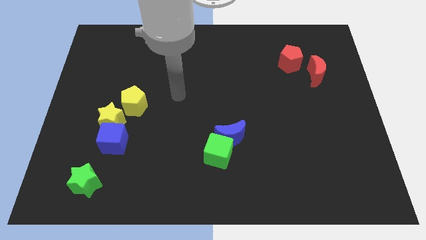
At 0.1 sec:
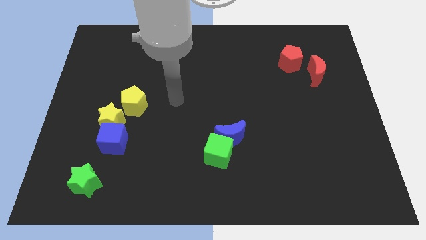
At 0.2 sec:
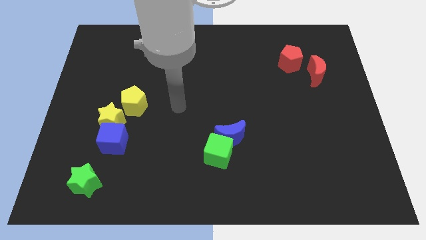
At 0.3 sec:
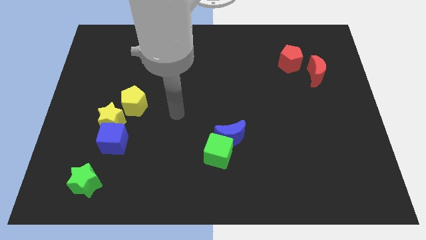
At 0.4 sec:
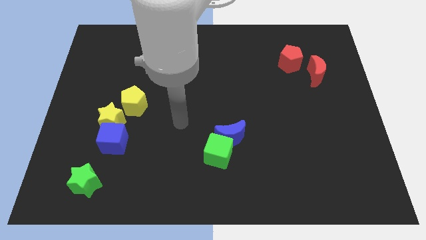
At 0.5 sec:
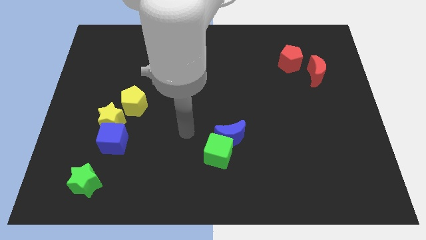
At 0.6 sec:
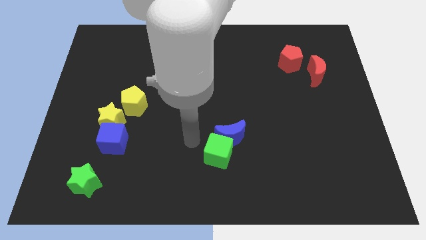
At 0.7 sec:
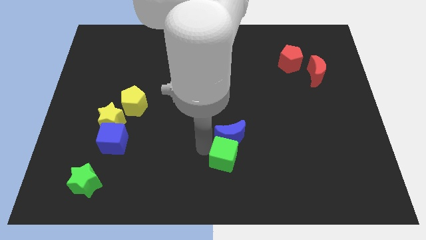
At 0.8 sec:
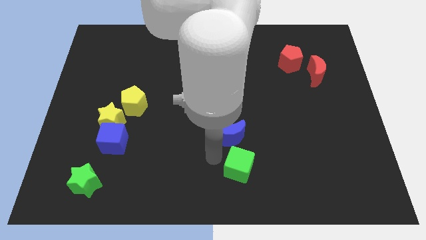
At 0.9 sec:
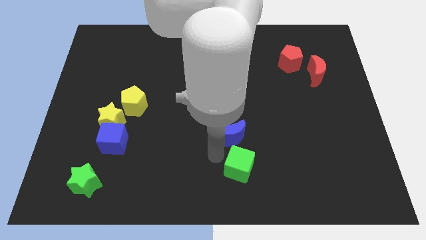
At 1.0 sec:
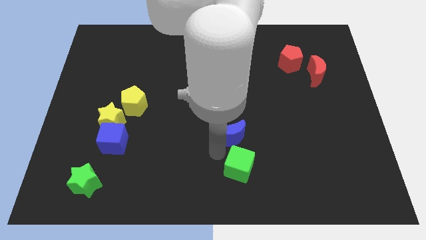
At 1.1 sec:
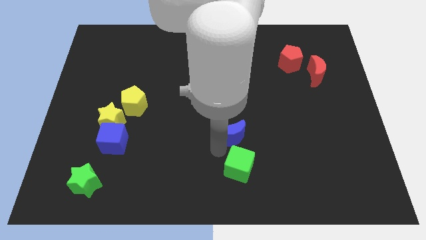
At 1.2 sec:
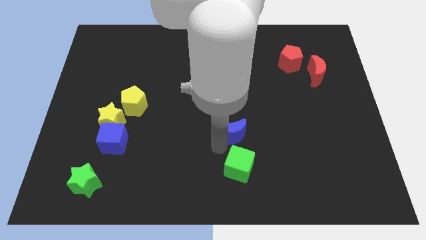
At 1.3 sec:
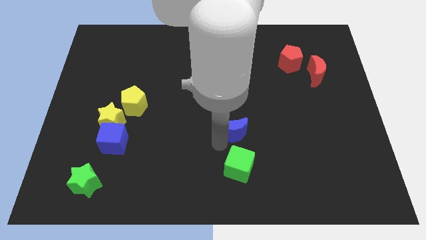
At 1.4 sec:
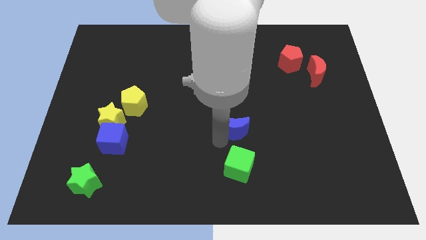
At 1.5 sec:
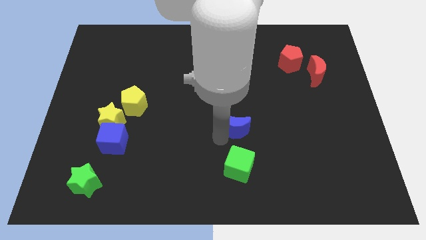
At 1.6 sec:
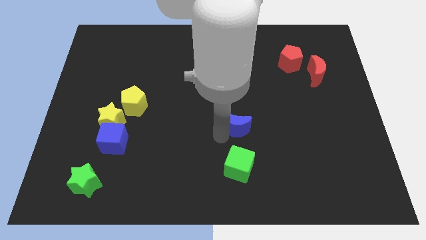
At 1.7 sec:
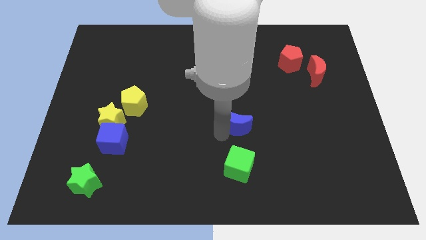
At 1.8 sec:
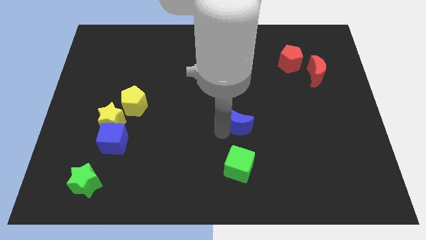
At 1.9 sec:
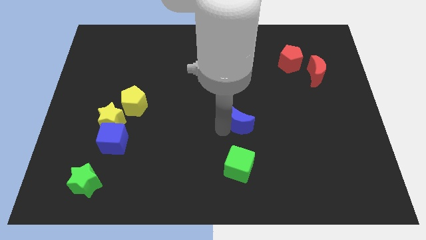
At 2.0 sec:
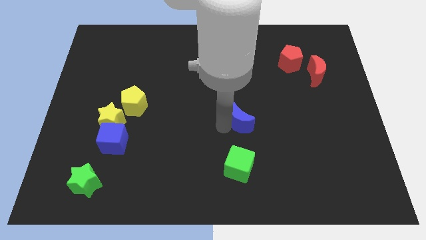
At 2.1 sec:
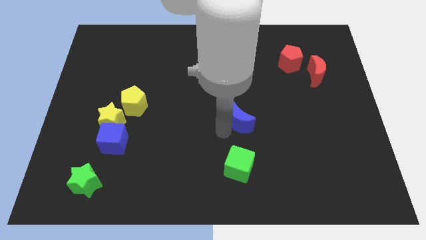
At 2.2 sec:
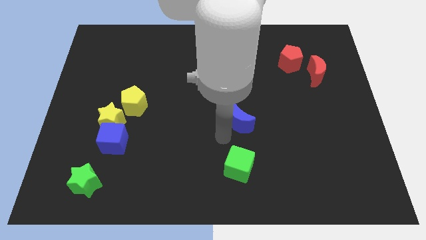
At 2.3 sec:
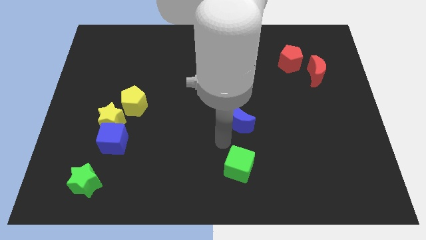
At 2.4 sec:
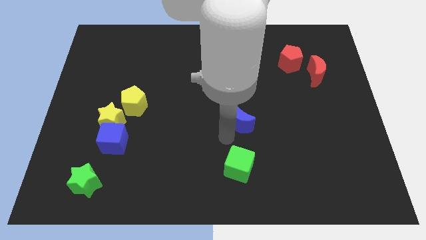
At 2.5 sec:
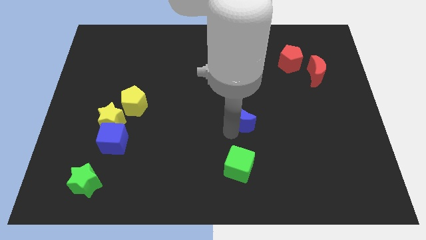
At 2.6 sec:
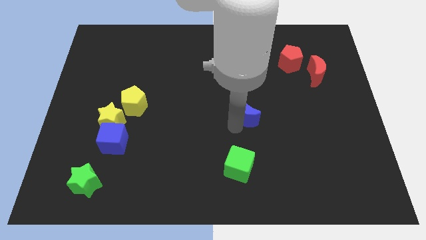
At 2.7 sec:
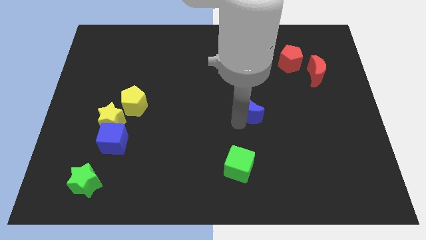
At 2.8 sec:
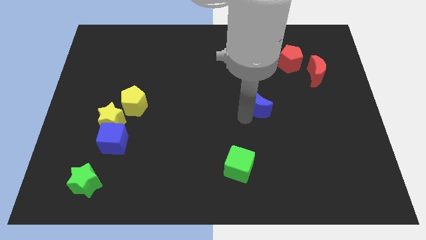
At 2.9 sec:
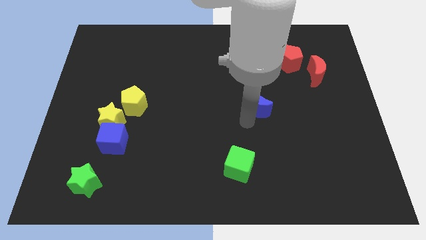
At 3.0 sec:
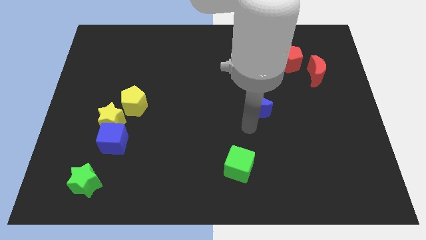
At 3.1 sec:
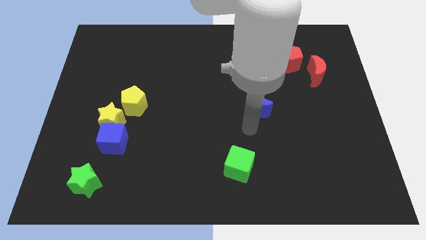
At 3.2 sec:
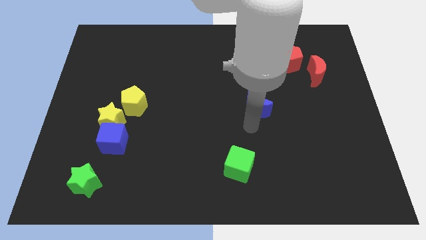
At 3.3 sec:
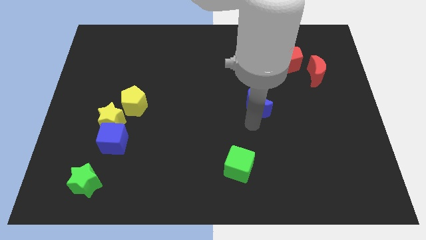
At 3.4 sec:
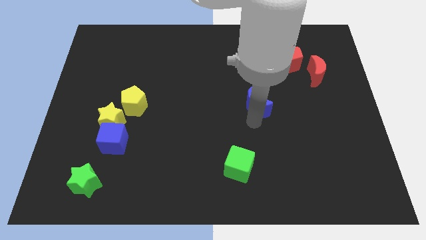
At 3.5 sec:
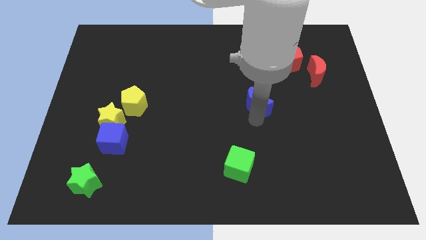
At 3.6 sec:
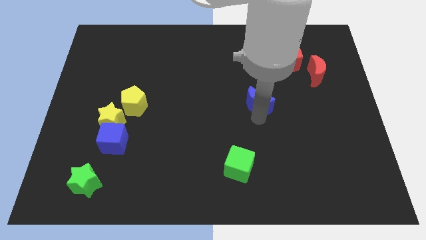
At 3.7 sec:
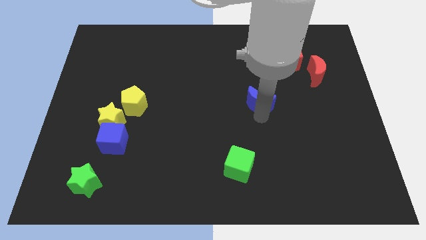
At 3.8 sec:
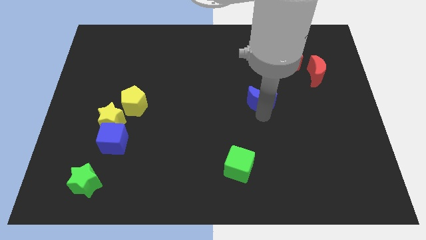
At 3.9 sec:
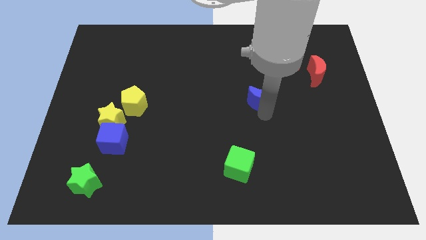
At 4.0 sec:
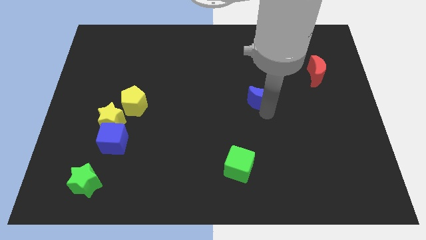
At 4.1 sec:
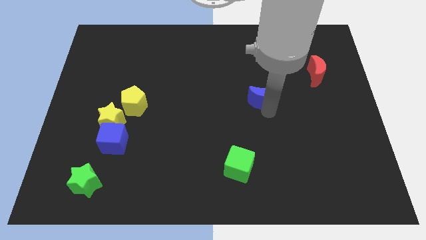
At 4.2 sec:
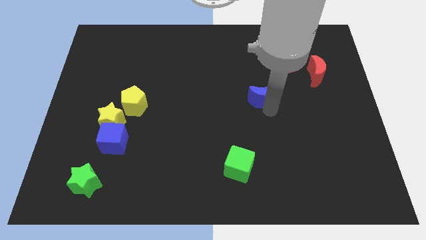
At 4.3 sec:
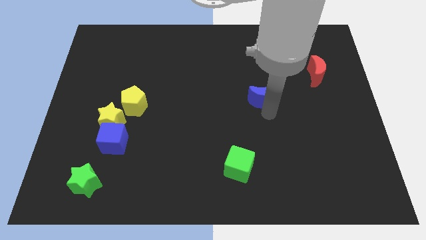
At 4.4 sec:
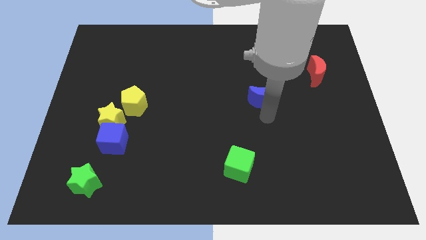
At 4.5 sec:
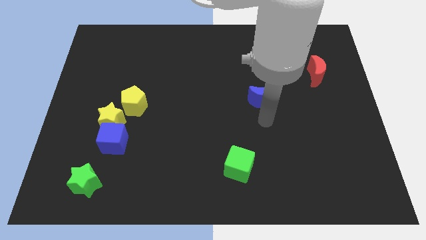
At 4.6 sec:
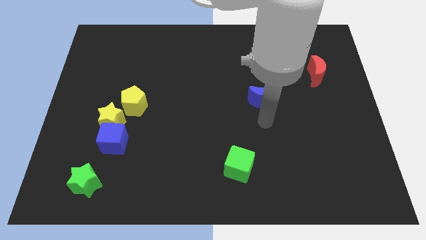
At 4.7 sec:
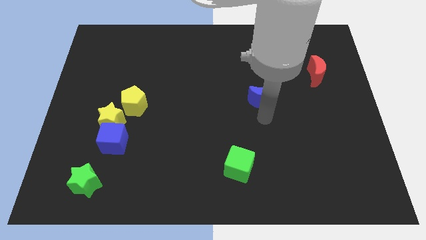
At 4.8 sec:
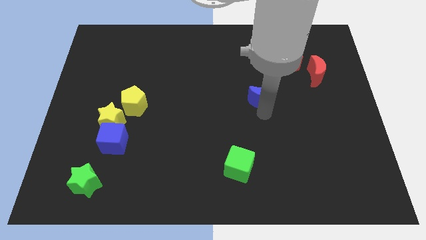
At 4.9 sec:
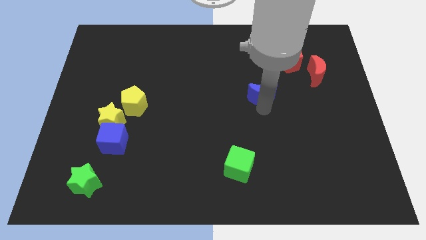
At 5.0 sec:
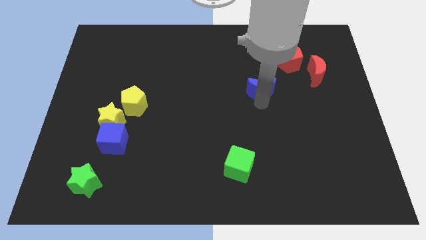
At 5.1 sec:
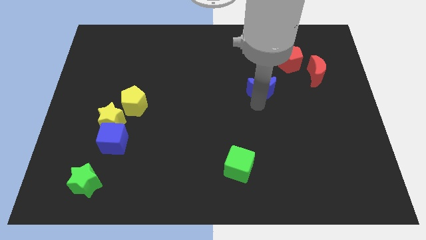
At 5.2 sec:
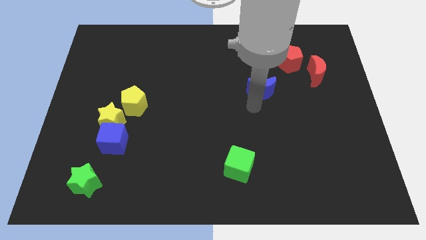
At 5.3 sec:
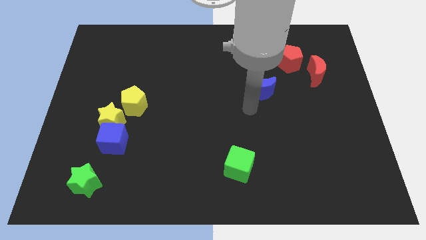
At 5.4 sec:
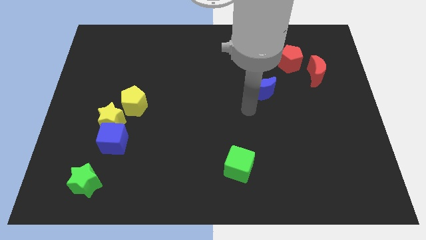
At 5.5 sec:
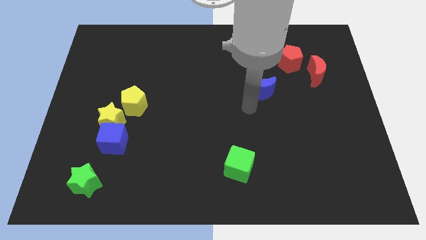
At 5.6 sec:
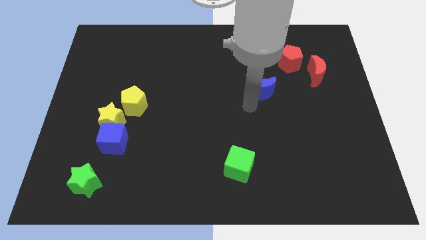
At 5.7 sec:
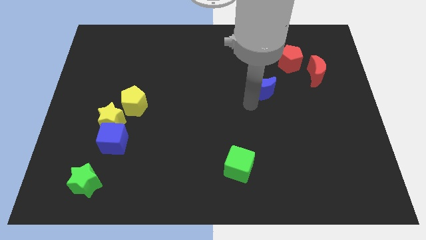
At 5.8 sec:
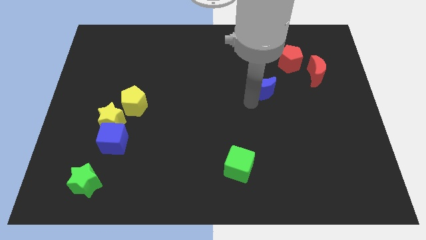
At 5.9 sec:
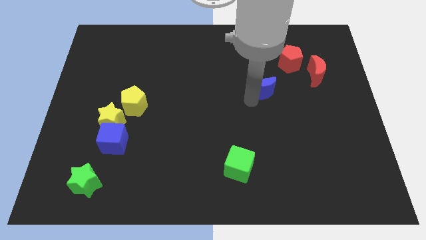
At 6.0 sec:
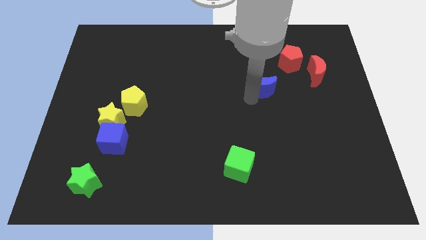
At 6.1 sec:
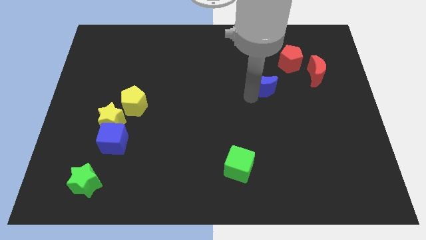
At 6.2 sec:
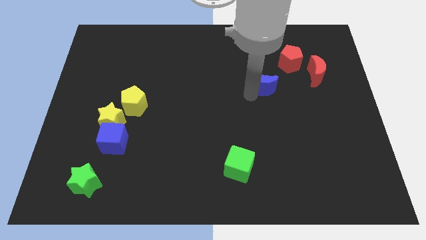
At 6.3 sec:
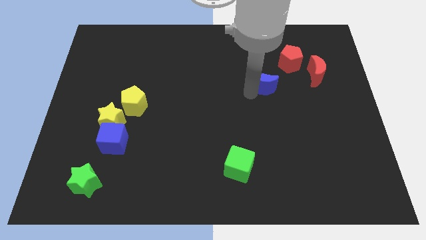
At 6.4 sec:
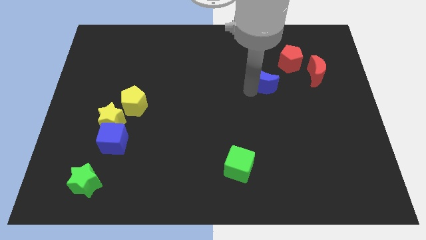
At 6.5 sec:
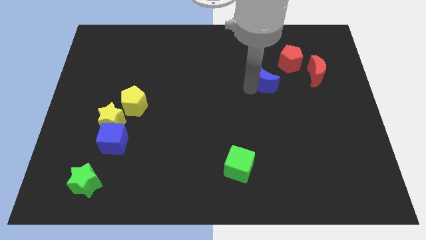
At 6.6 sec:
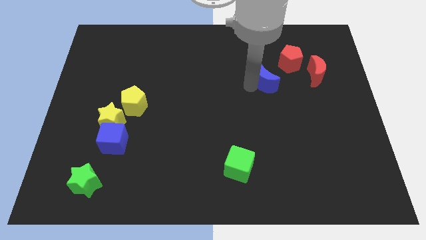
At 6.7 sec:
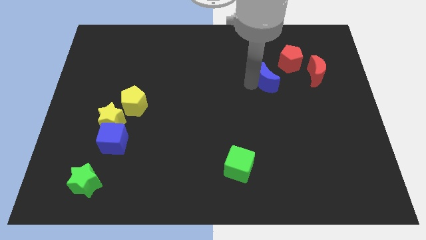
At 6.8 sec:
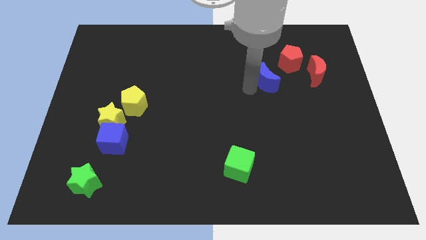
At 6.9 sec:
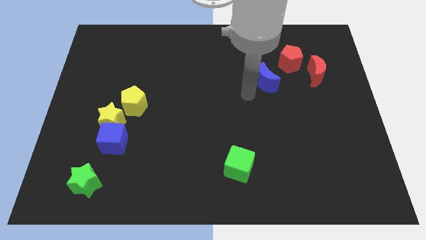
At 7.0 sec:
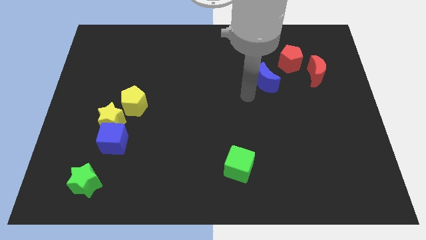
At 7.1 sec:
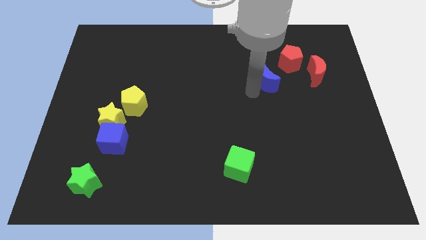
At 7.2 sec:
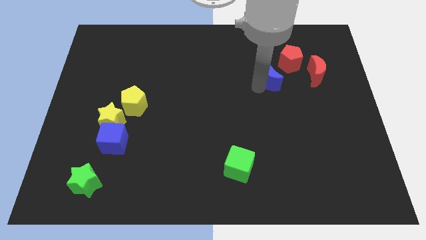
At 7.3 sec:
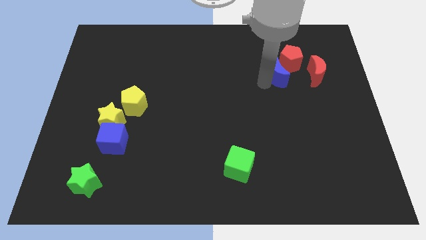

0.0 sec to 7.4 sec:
push the blue moon next to the red pentagon
